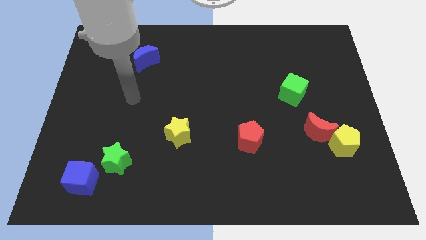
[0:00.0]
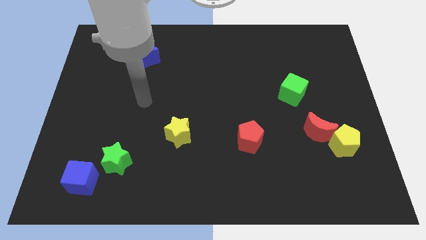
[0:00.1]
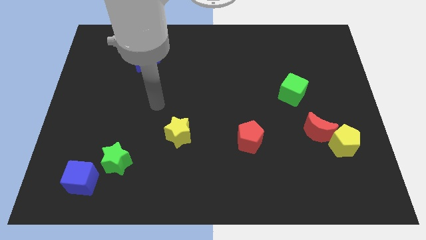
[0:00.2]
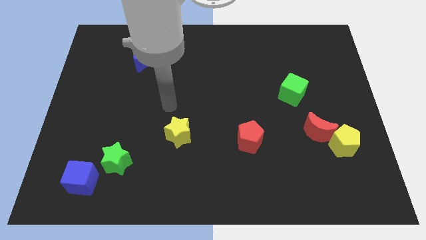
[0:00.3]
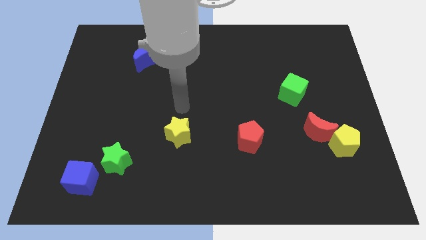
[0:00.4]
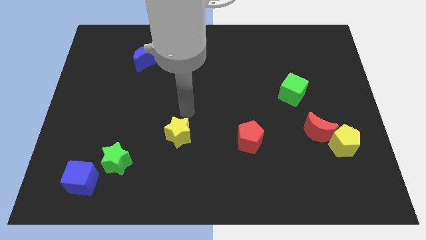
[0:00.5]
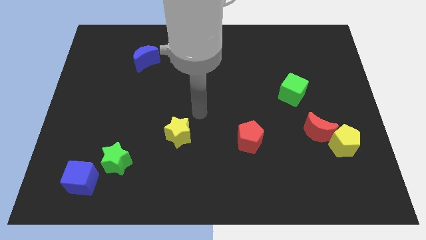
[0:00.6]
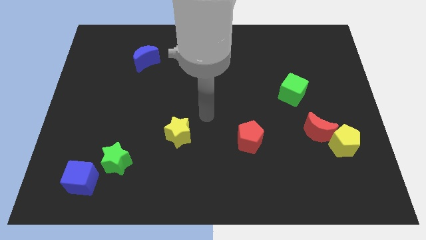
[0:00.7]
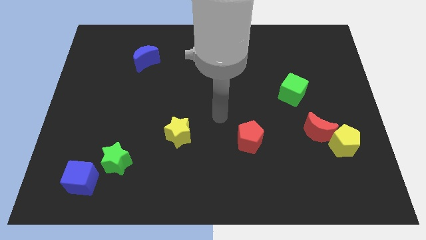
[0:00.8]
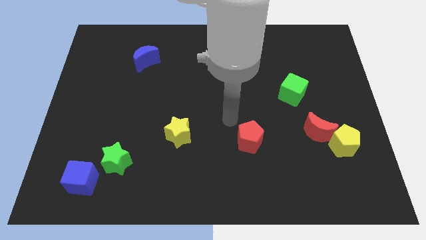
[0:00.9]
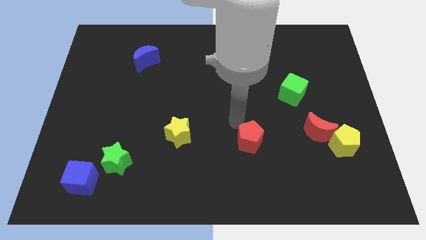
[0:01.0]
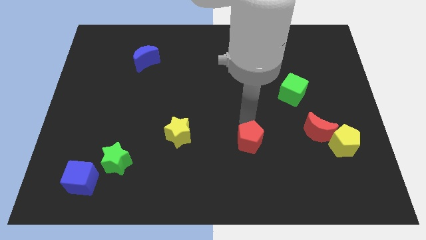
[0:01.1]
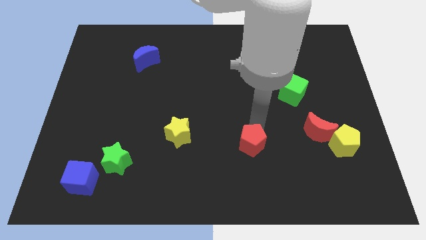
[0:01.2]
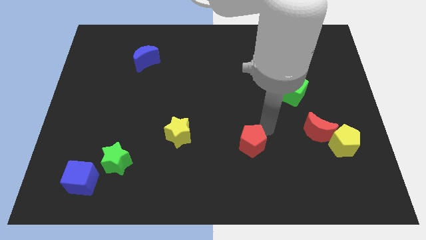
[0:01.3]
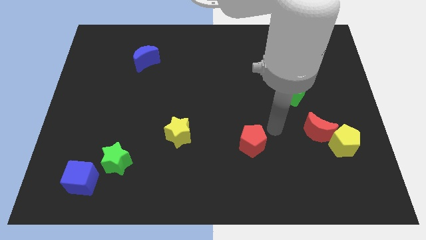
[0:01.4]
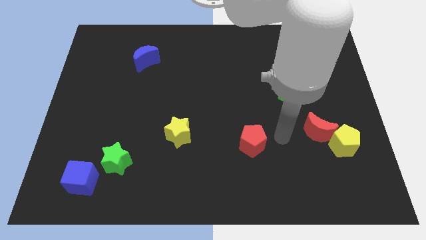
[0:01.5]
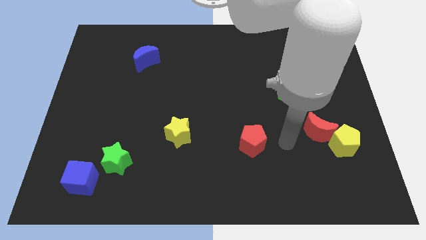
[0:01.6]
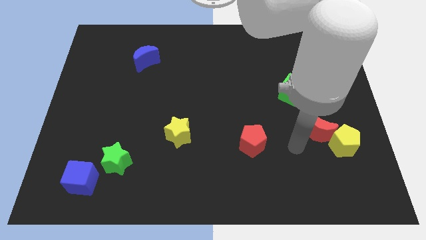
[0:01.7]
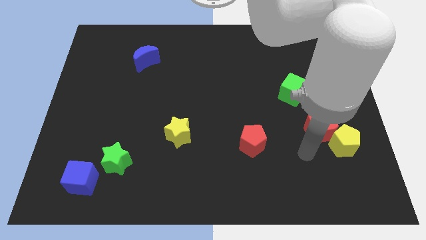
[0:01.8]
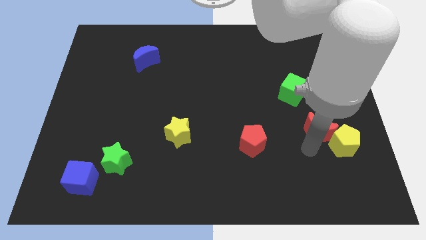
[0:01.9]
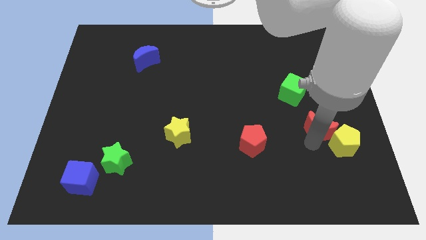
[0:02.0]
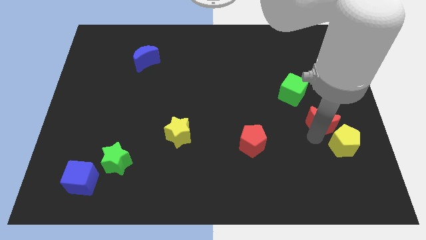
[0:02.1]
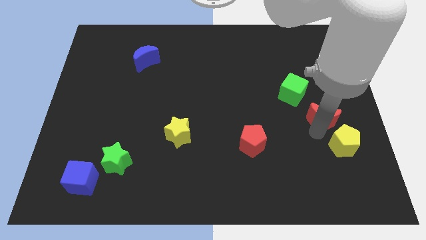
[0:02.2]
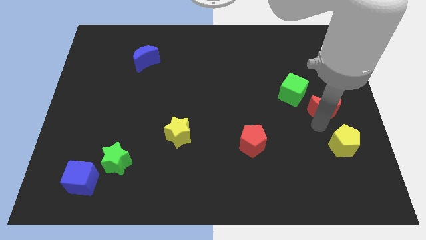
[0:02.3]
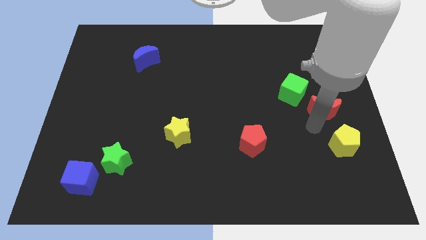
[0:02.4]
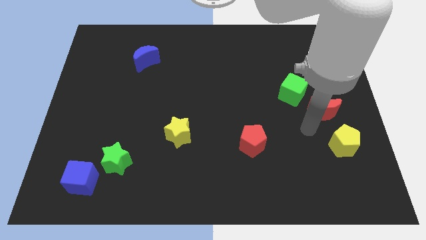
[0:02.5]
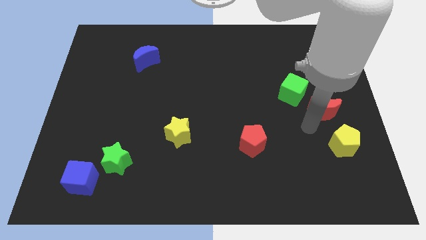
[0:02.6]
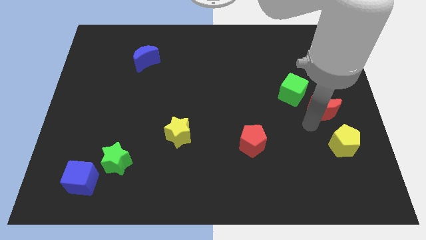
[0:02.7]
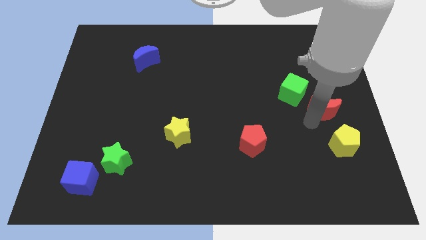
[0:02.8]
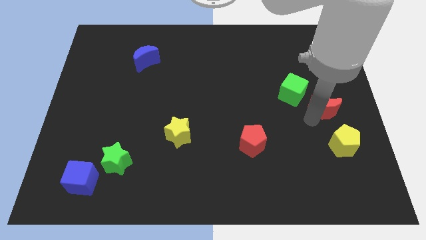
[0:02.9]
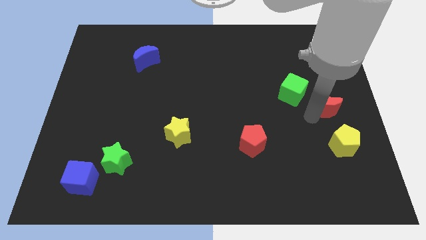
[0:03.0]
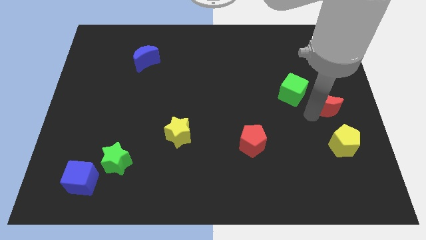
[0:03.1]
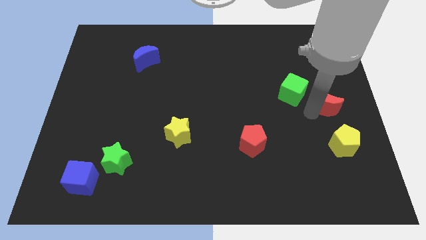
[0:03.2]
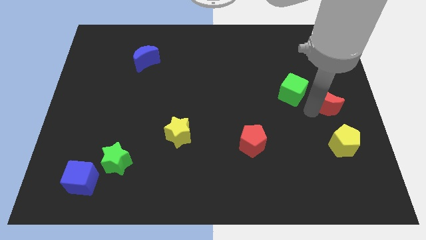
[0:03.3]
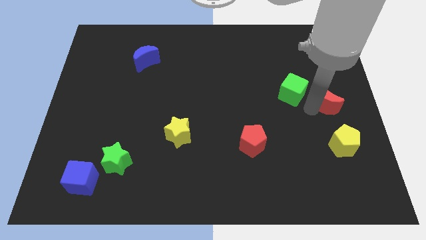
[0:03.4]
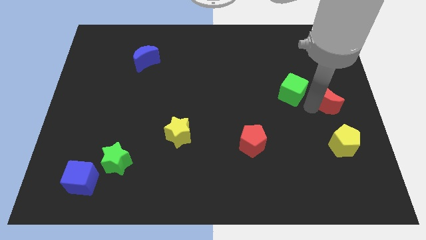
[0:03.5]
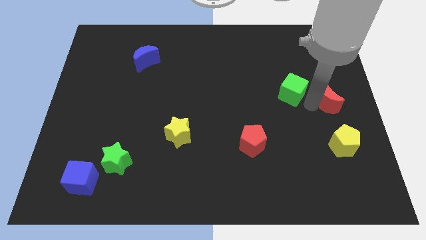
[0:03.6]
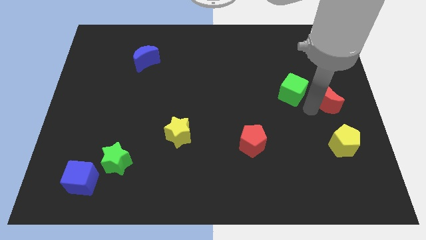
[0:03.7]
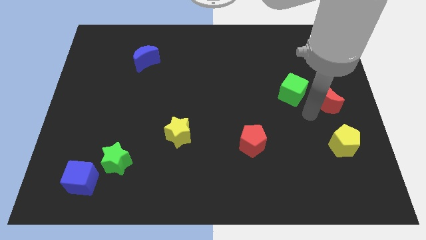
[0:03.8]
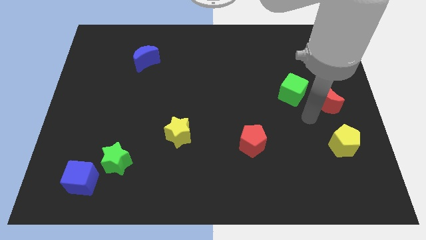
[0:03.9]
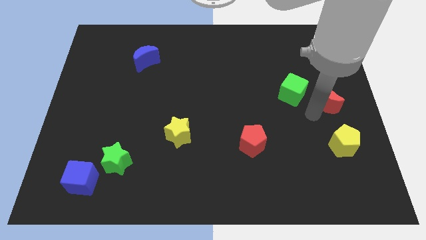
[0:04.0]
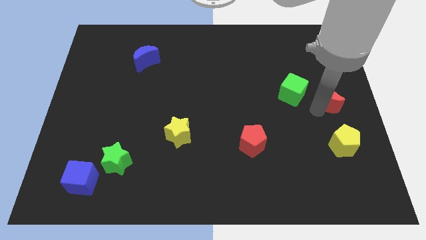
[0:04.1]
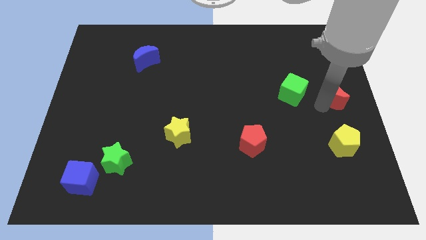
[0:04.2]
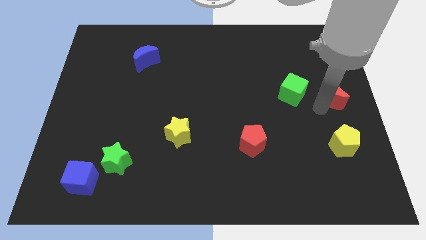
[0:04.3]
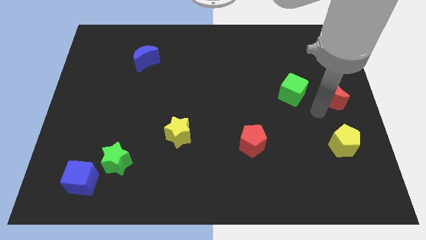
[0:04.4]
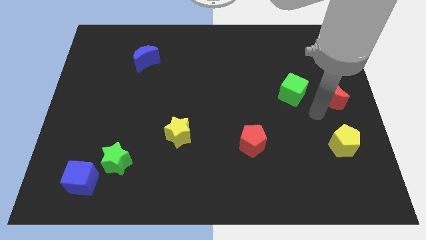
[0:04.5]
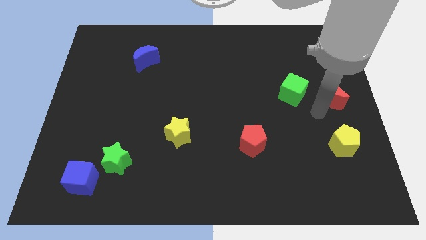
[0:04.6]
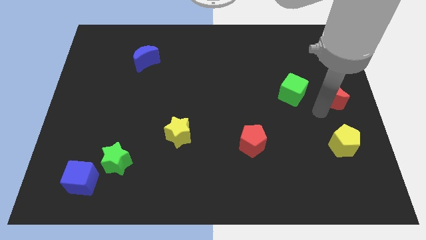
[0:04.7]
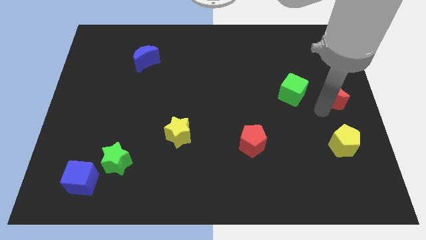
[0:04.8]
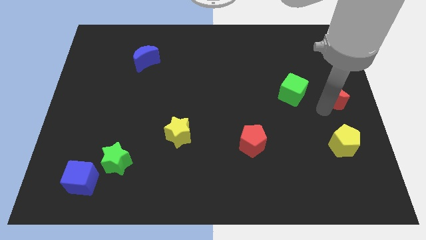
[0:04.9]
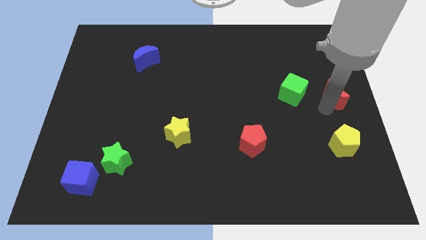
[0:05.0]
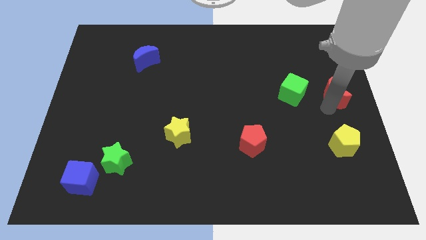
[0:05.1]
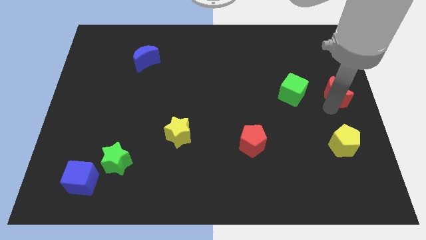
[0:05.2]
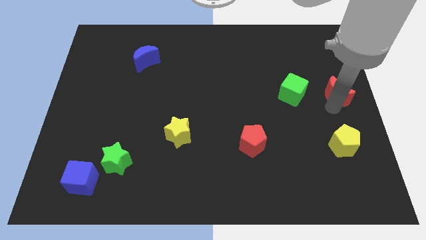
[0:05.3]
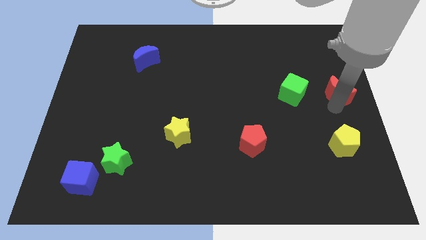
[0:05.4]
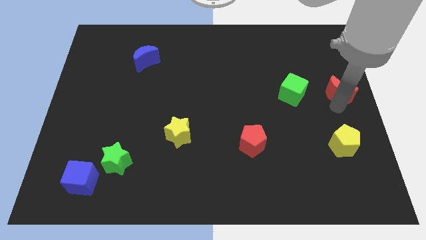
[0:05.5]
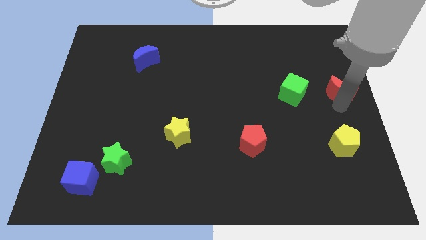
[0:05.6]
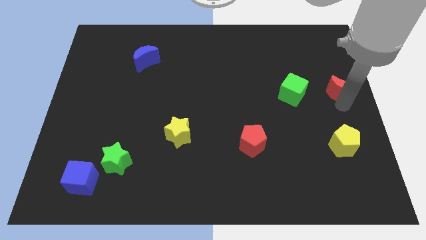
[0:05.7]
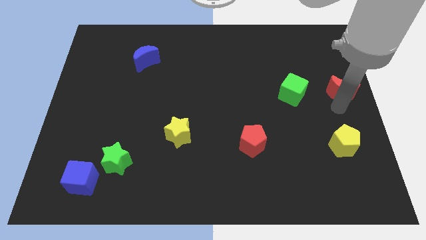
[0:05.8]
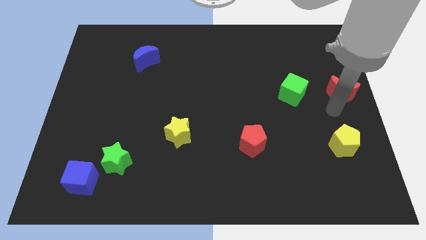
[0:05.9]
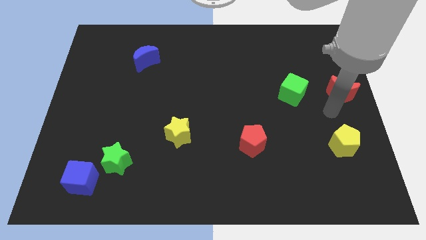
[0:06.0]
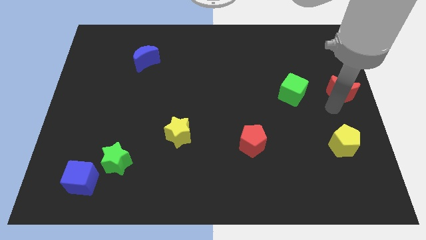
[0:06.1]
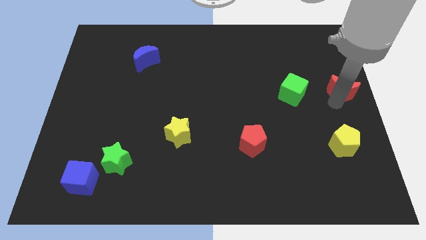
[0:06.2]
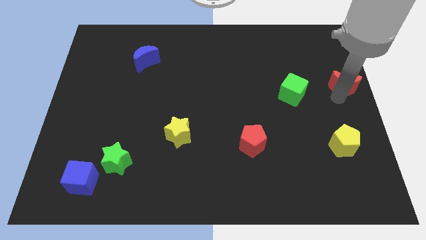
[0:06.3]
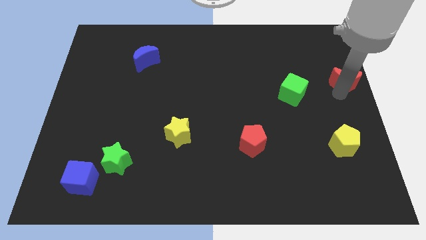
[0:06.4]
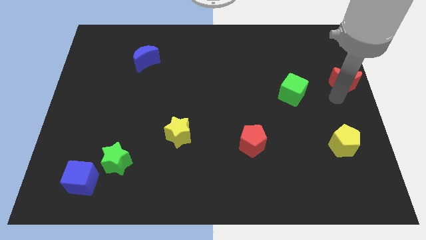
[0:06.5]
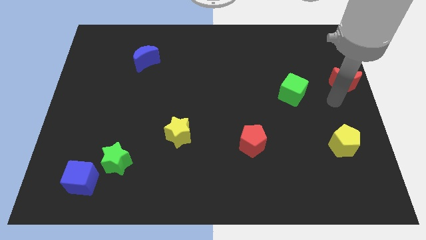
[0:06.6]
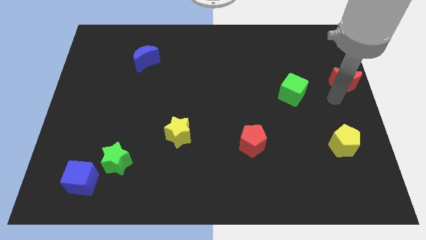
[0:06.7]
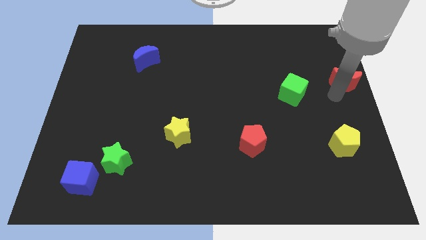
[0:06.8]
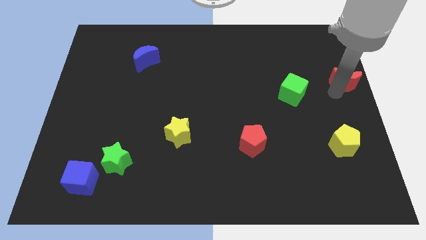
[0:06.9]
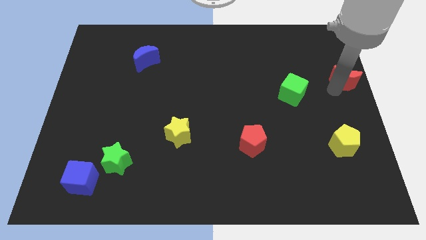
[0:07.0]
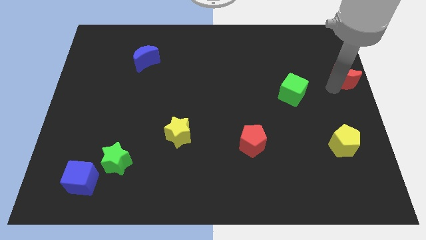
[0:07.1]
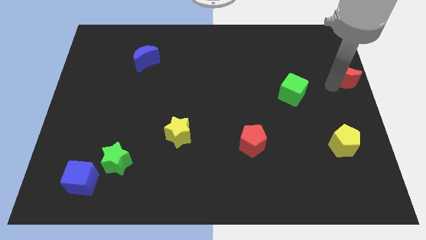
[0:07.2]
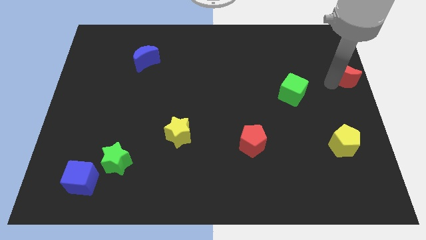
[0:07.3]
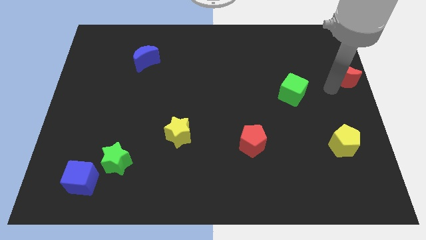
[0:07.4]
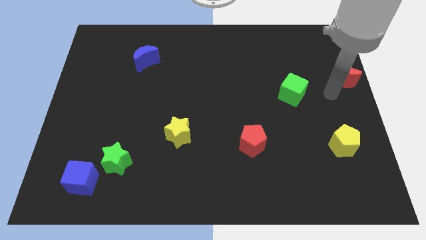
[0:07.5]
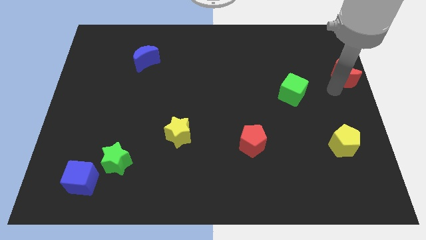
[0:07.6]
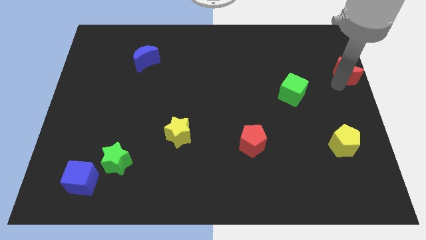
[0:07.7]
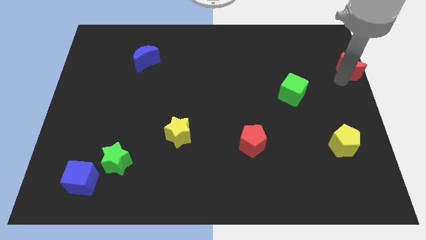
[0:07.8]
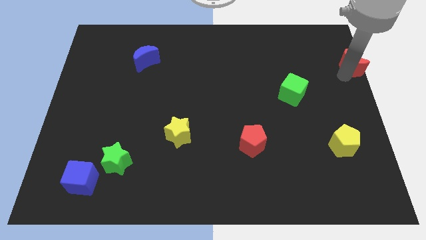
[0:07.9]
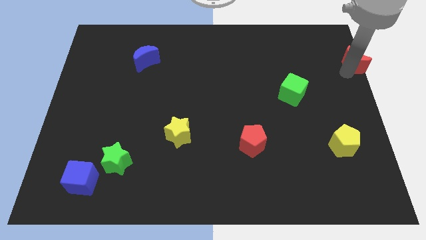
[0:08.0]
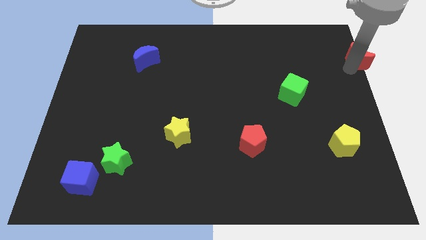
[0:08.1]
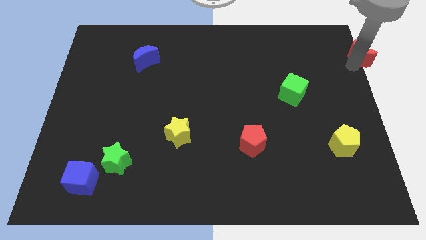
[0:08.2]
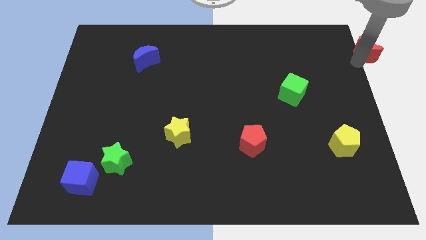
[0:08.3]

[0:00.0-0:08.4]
move the red moon to the upper right corner
